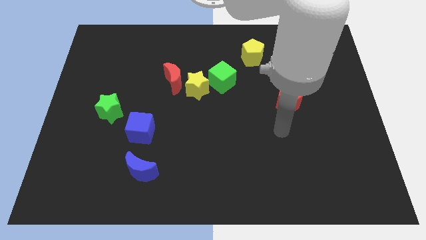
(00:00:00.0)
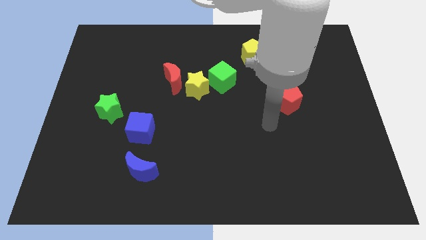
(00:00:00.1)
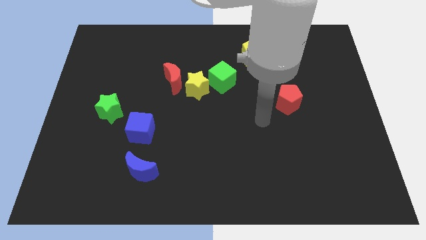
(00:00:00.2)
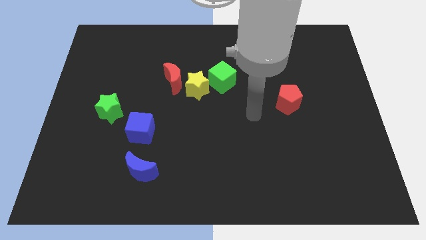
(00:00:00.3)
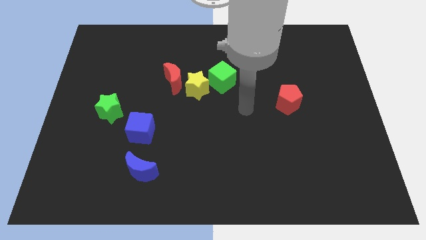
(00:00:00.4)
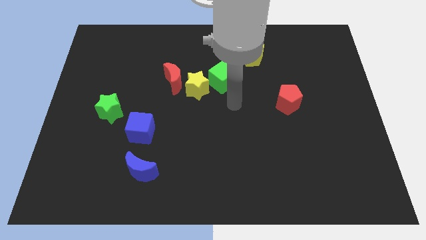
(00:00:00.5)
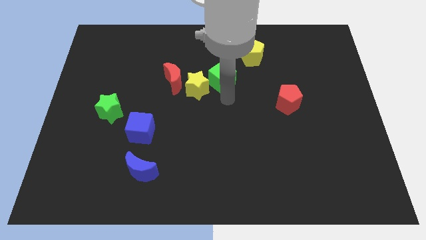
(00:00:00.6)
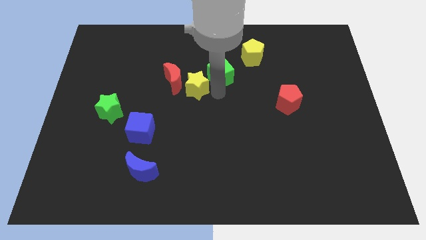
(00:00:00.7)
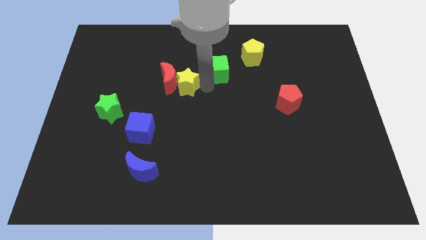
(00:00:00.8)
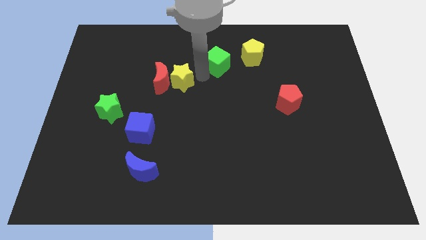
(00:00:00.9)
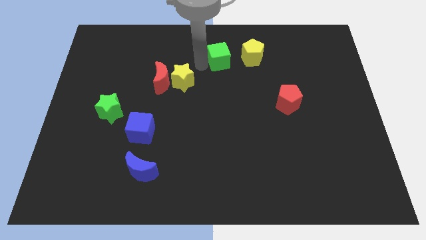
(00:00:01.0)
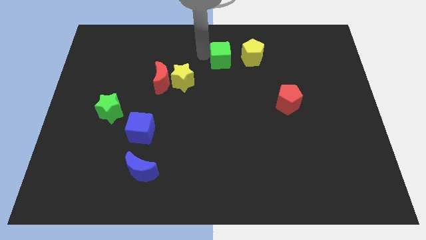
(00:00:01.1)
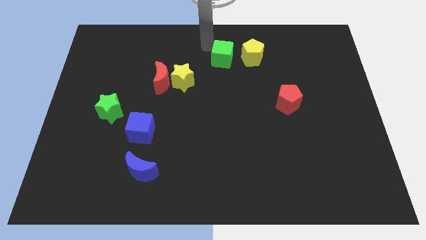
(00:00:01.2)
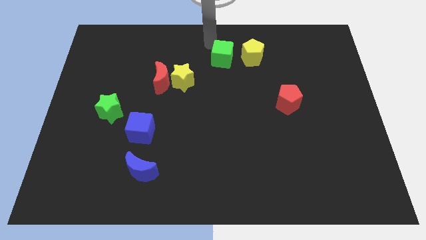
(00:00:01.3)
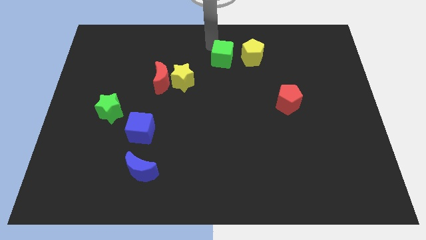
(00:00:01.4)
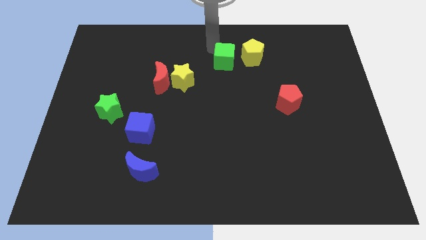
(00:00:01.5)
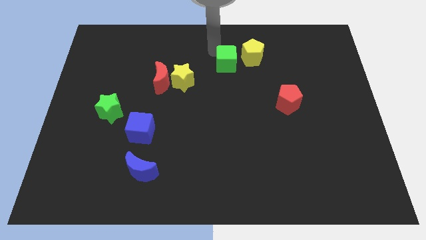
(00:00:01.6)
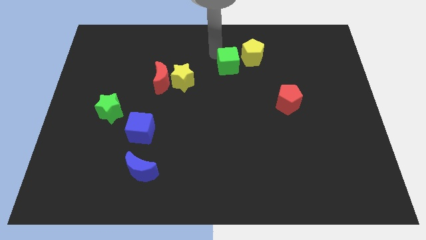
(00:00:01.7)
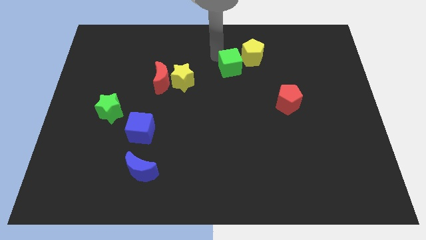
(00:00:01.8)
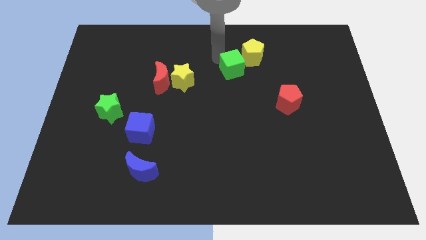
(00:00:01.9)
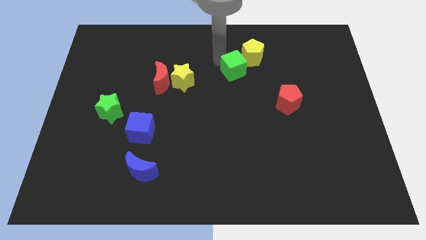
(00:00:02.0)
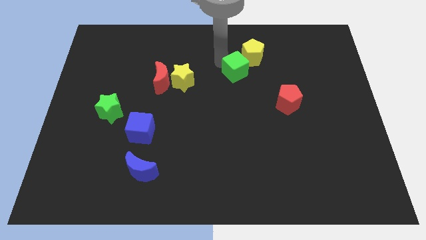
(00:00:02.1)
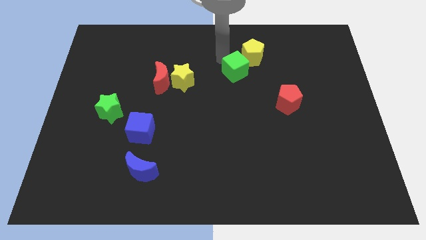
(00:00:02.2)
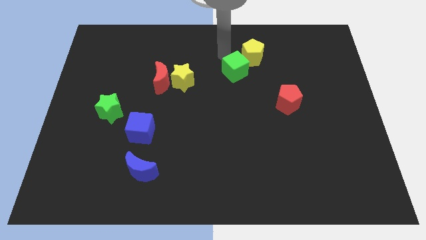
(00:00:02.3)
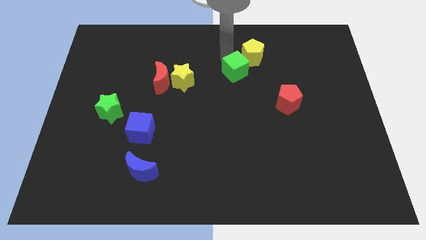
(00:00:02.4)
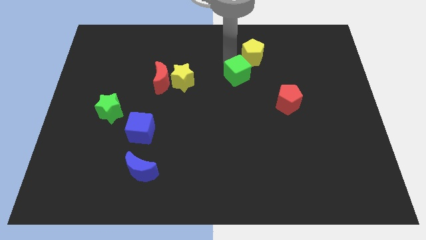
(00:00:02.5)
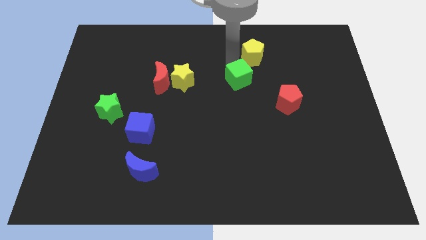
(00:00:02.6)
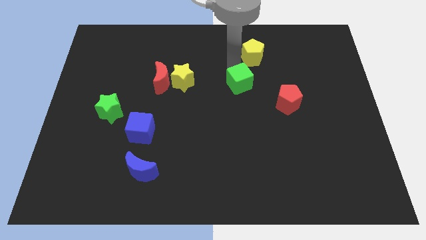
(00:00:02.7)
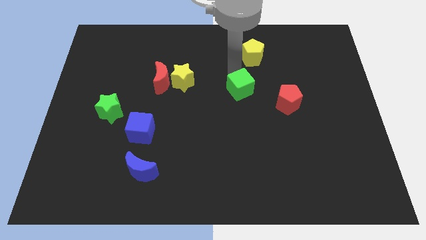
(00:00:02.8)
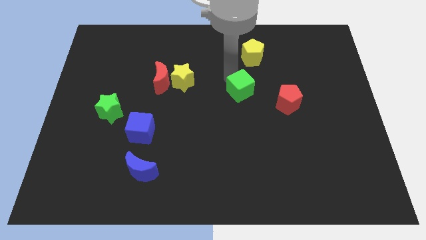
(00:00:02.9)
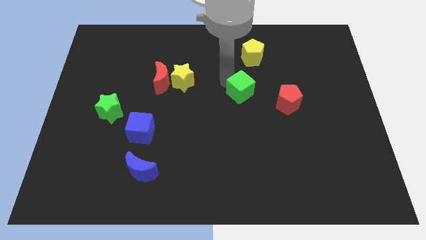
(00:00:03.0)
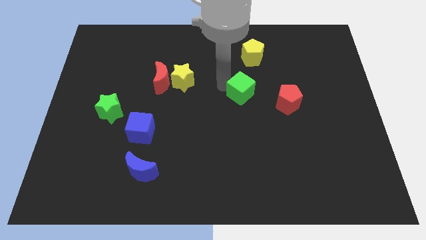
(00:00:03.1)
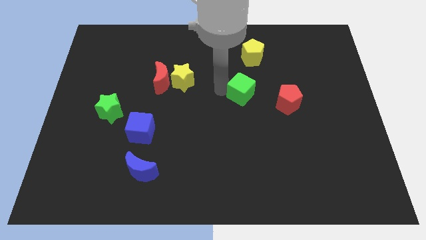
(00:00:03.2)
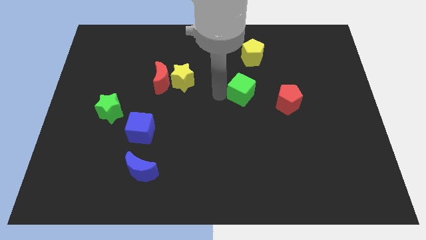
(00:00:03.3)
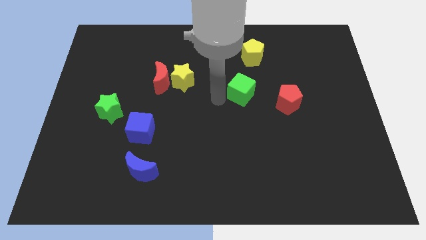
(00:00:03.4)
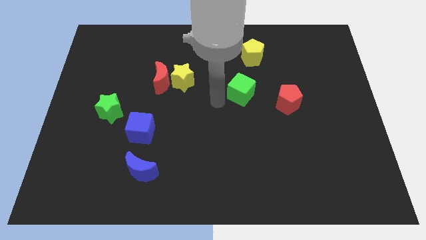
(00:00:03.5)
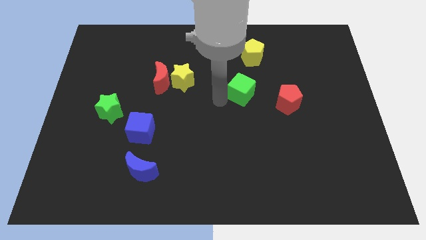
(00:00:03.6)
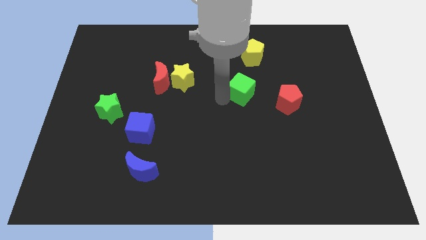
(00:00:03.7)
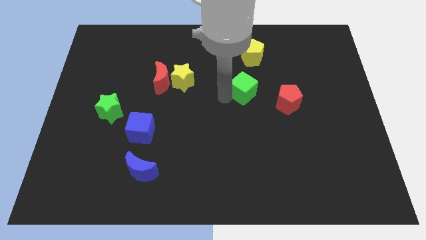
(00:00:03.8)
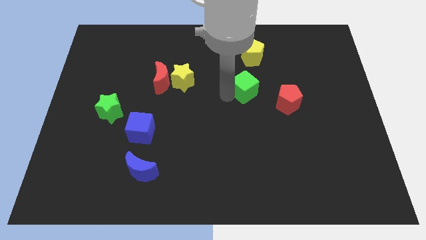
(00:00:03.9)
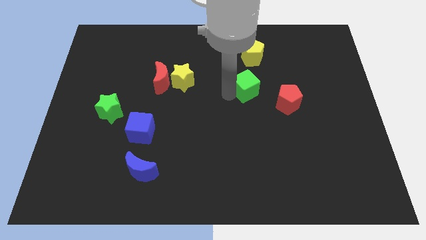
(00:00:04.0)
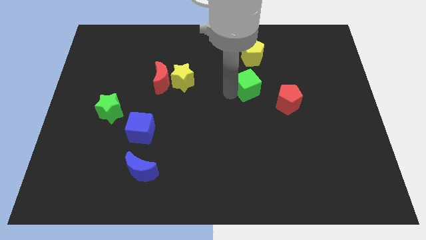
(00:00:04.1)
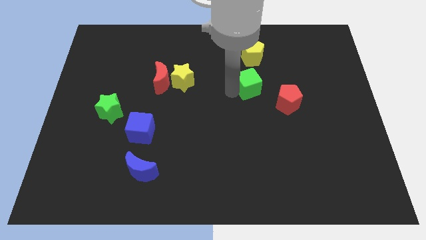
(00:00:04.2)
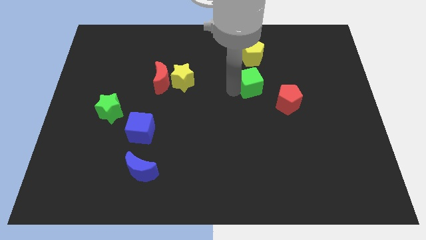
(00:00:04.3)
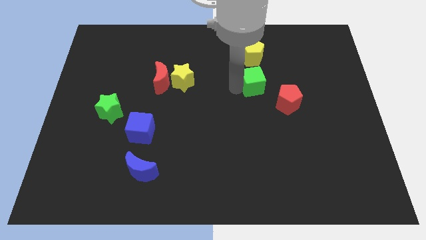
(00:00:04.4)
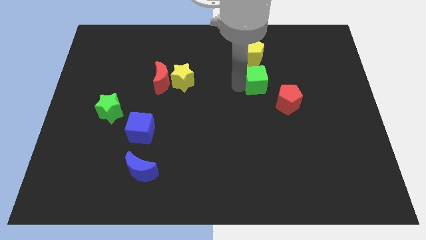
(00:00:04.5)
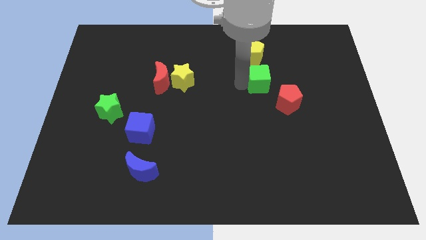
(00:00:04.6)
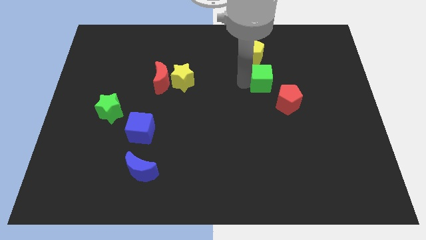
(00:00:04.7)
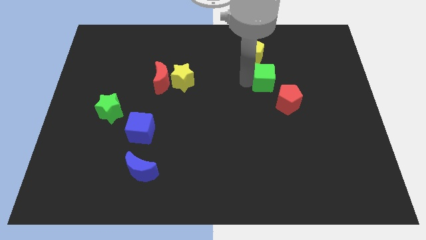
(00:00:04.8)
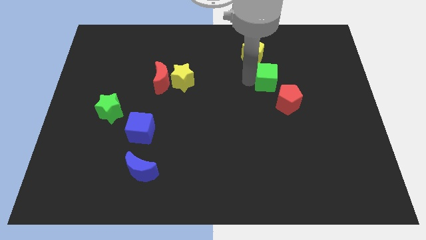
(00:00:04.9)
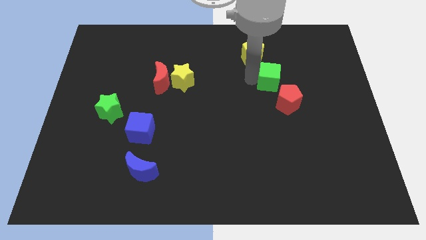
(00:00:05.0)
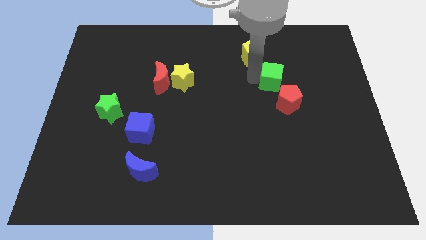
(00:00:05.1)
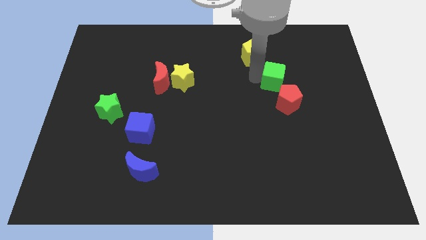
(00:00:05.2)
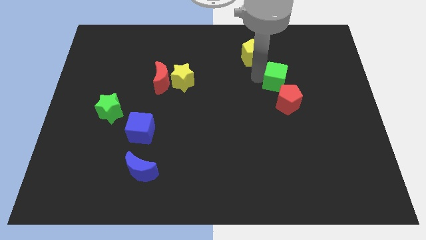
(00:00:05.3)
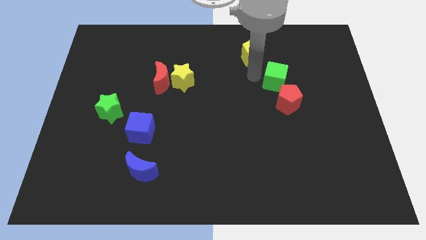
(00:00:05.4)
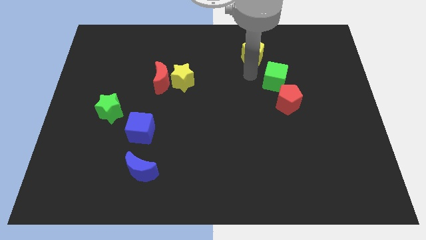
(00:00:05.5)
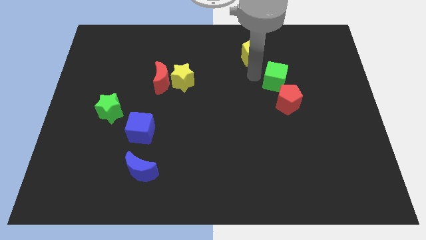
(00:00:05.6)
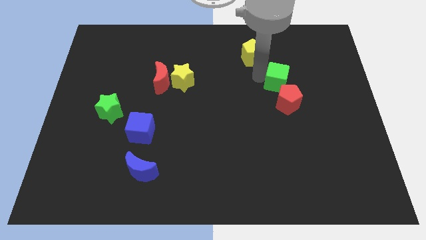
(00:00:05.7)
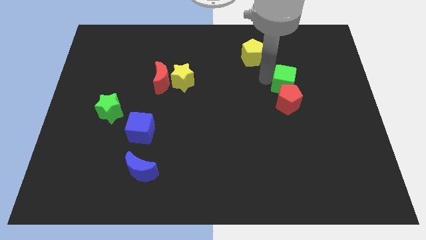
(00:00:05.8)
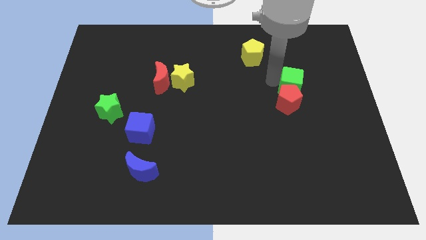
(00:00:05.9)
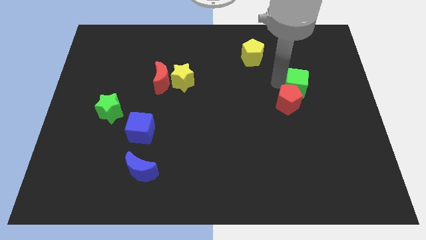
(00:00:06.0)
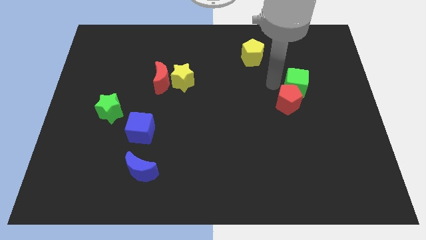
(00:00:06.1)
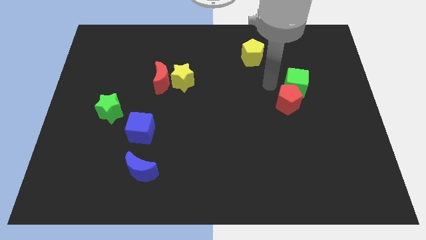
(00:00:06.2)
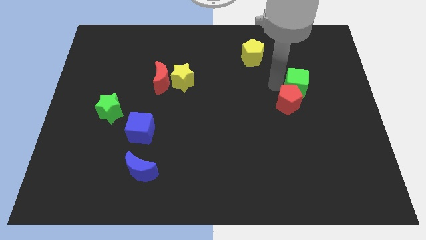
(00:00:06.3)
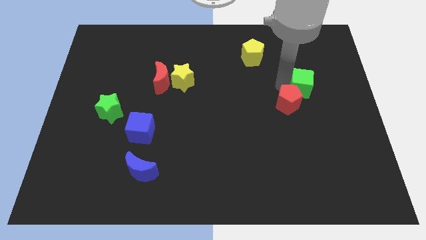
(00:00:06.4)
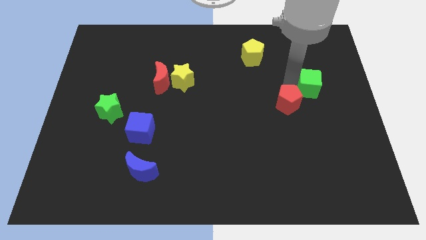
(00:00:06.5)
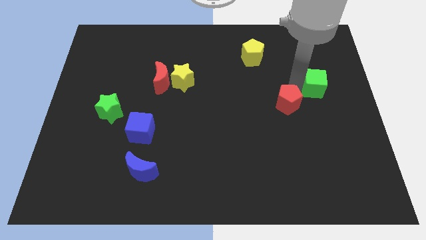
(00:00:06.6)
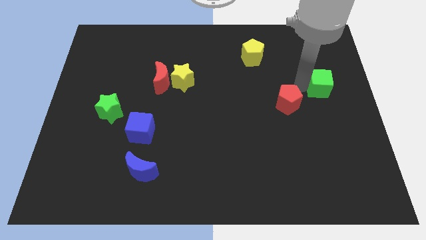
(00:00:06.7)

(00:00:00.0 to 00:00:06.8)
put the green cube to the center right
